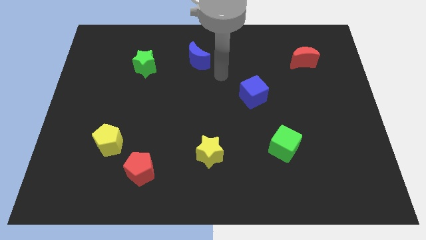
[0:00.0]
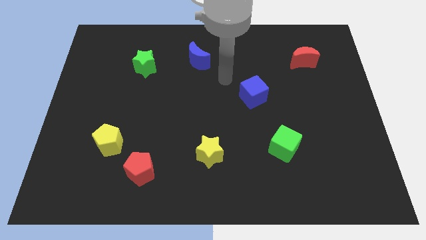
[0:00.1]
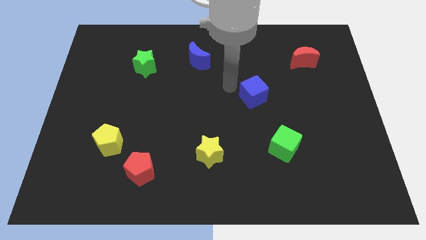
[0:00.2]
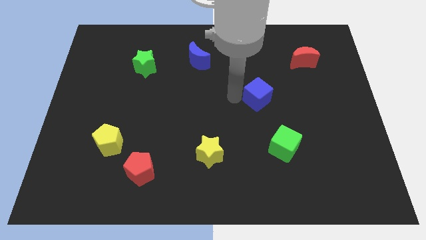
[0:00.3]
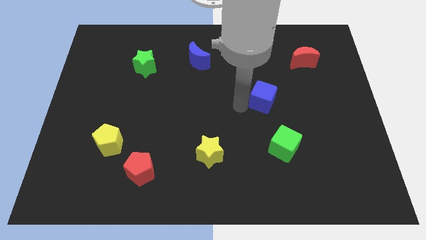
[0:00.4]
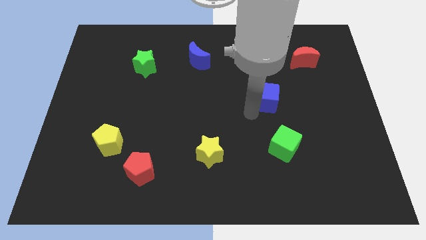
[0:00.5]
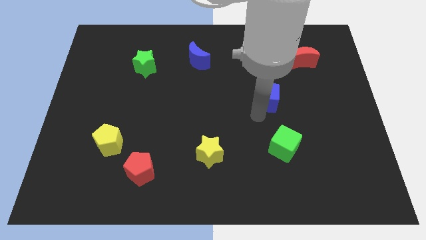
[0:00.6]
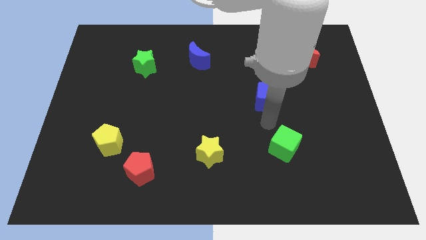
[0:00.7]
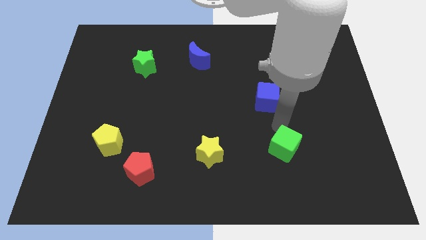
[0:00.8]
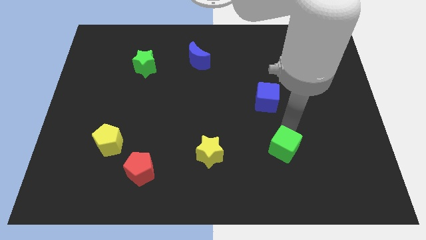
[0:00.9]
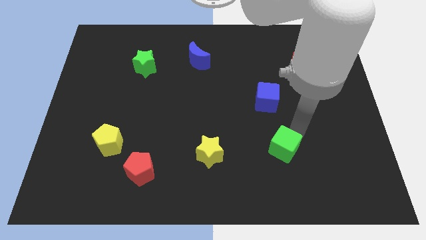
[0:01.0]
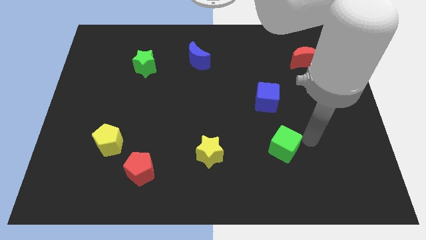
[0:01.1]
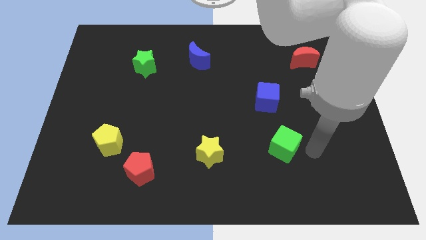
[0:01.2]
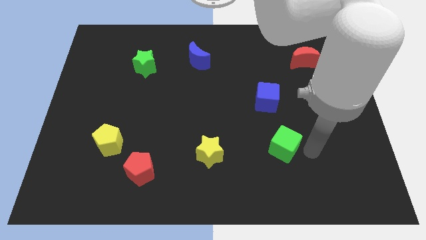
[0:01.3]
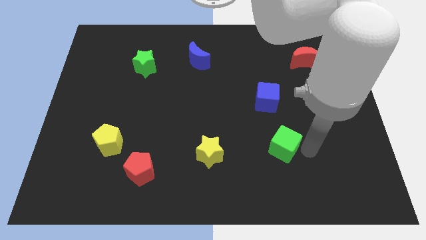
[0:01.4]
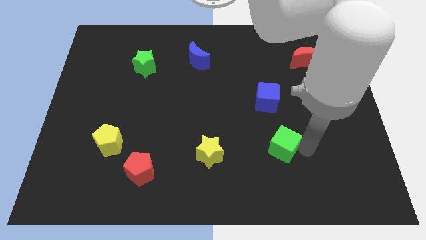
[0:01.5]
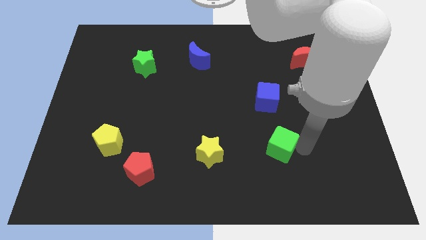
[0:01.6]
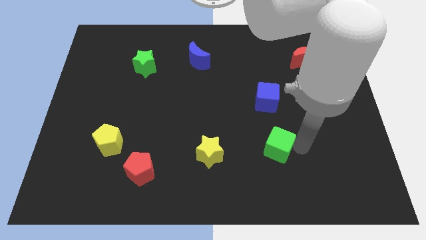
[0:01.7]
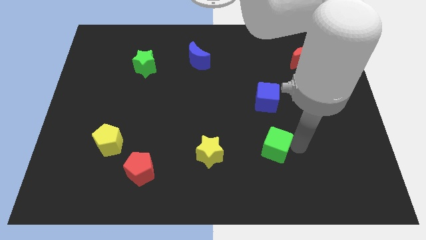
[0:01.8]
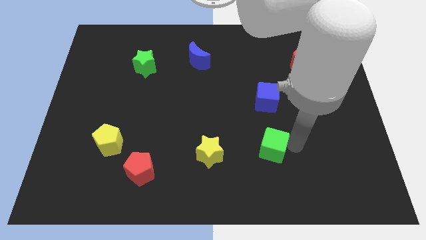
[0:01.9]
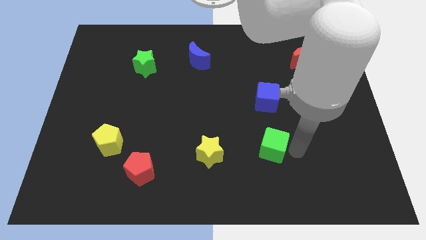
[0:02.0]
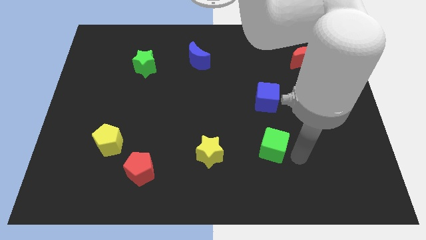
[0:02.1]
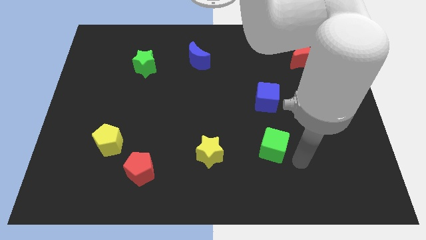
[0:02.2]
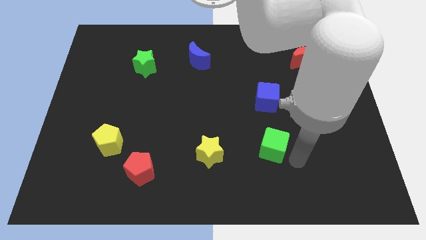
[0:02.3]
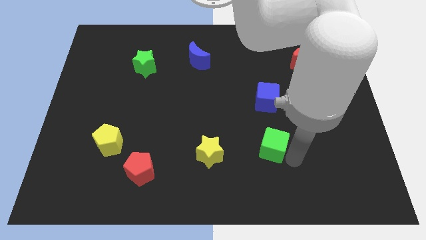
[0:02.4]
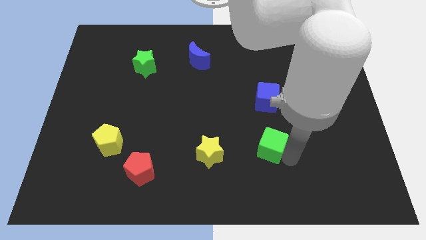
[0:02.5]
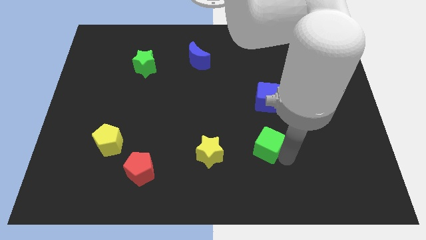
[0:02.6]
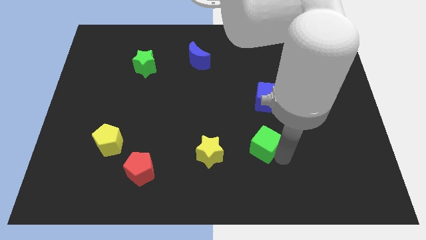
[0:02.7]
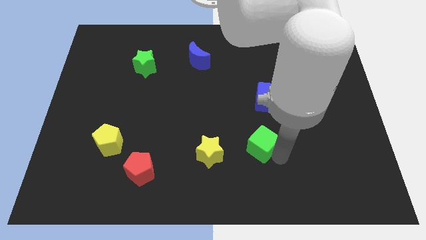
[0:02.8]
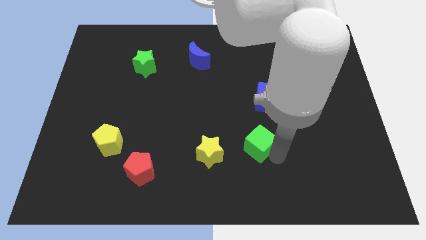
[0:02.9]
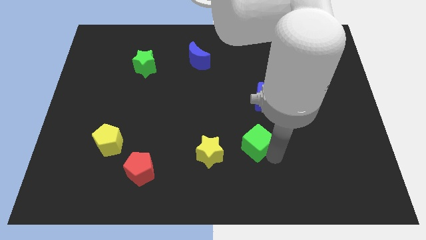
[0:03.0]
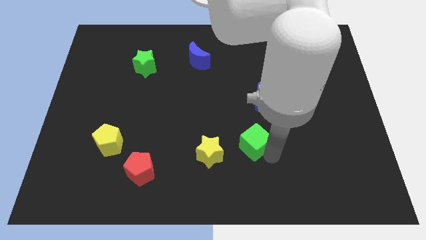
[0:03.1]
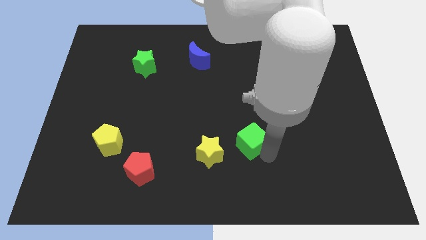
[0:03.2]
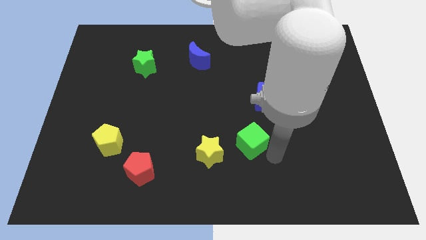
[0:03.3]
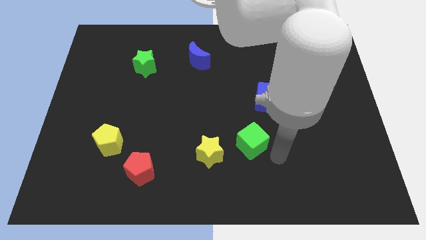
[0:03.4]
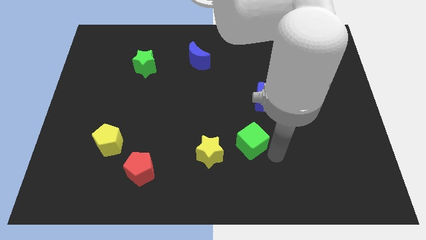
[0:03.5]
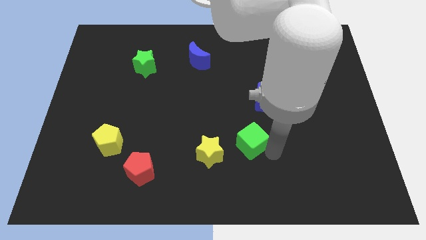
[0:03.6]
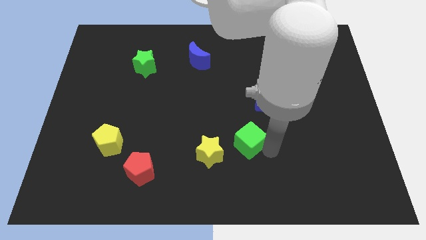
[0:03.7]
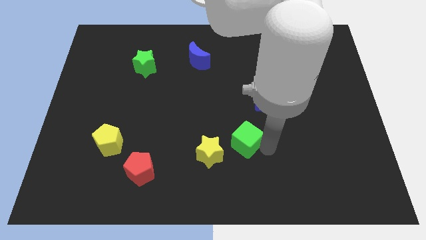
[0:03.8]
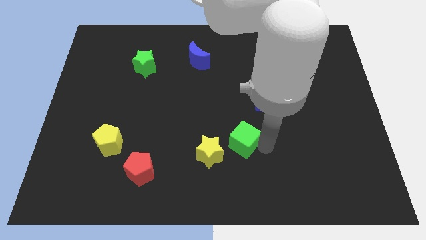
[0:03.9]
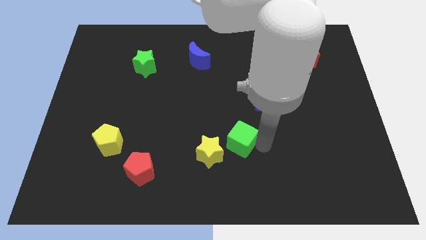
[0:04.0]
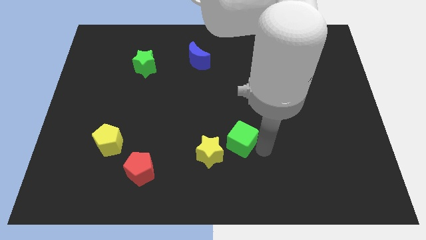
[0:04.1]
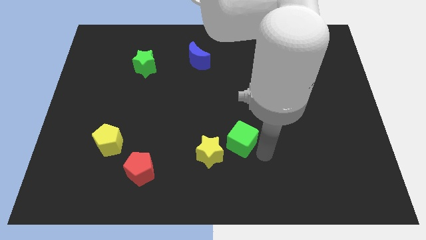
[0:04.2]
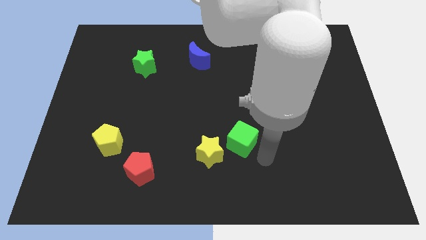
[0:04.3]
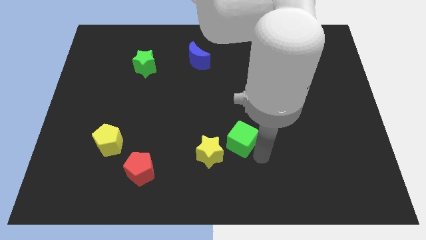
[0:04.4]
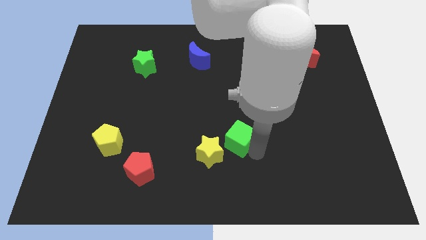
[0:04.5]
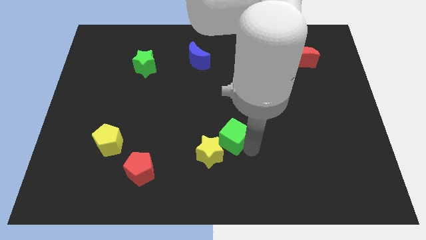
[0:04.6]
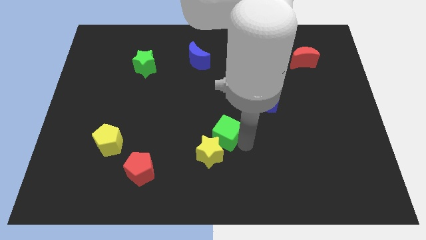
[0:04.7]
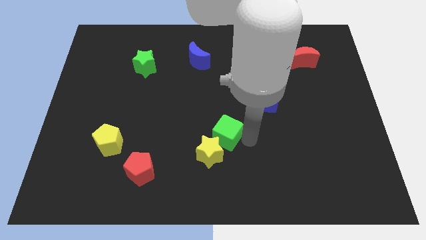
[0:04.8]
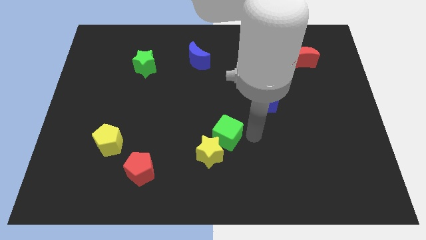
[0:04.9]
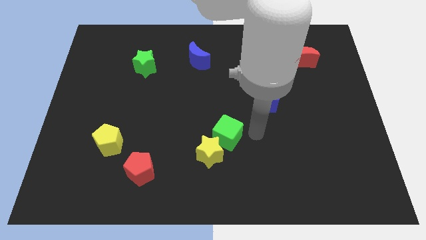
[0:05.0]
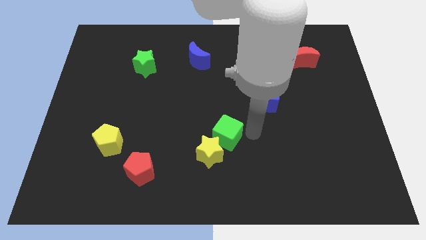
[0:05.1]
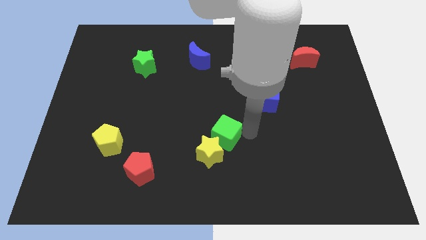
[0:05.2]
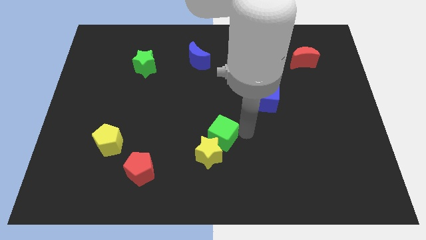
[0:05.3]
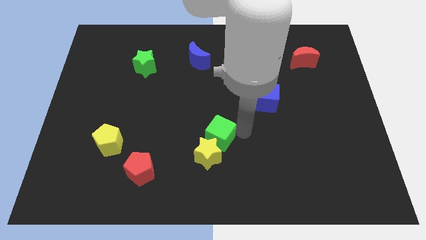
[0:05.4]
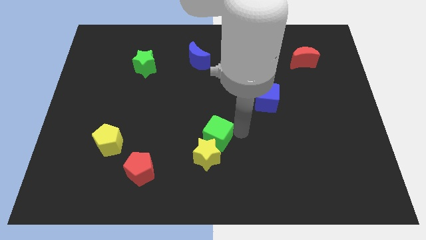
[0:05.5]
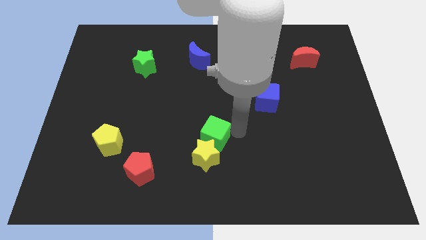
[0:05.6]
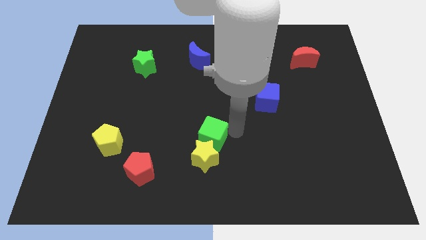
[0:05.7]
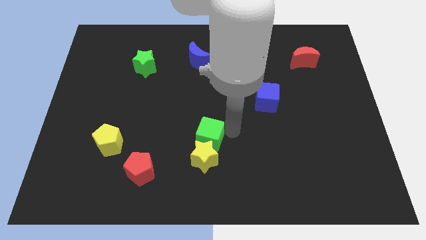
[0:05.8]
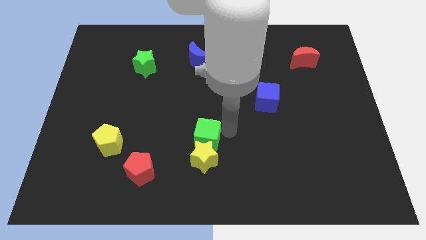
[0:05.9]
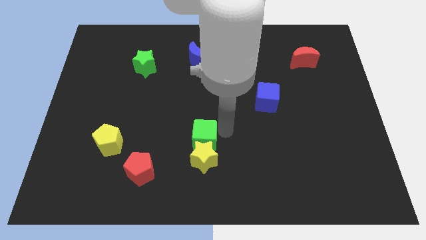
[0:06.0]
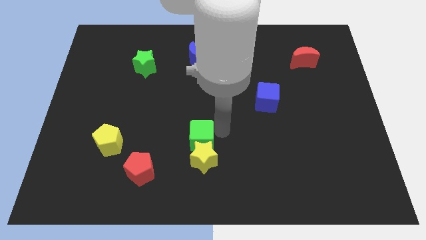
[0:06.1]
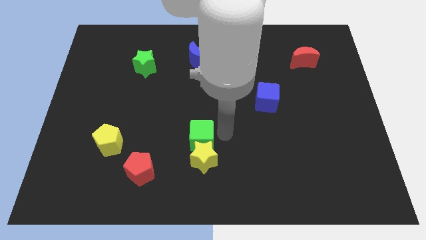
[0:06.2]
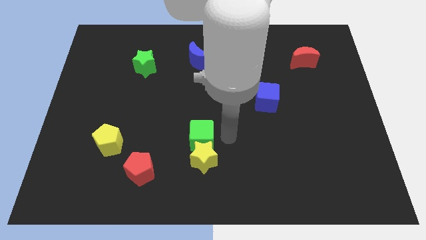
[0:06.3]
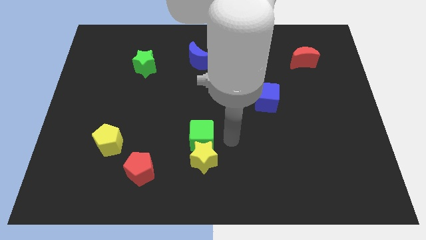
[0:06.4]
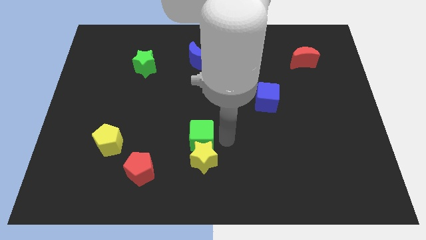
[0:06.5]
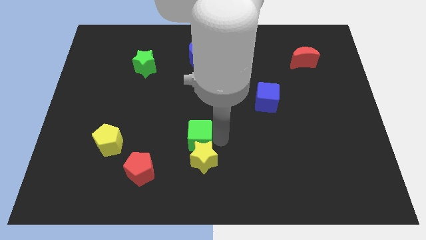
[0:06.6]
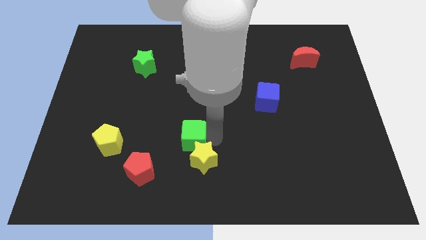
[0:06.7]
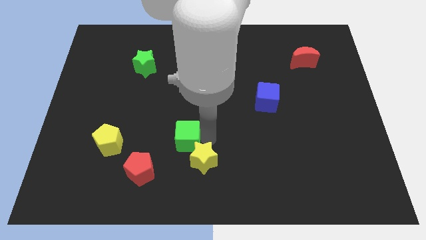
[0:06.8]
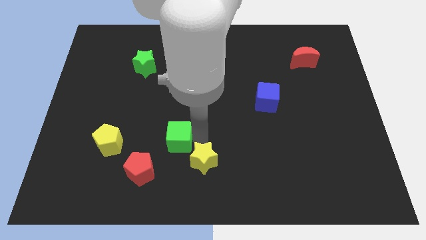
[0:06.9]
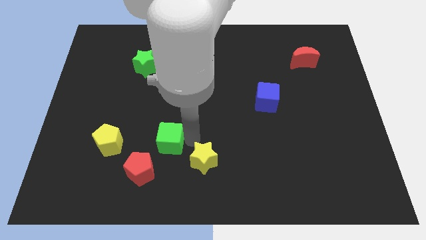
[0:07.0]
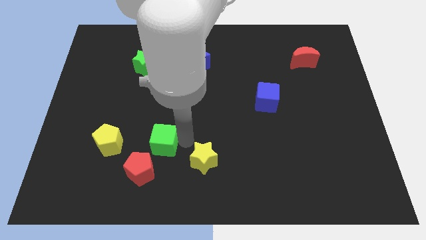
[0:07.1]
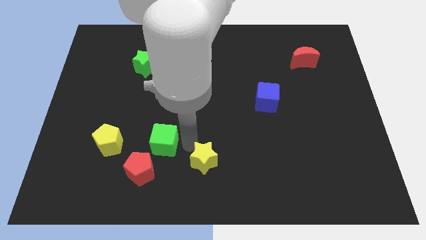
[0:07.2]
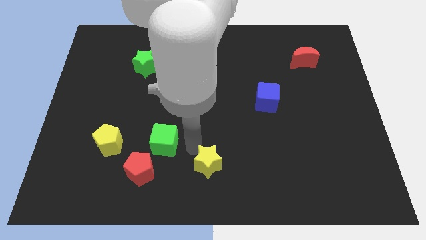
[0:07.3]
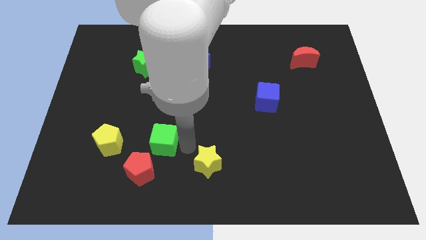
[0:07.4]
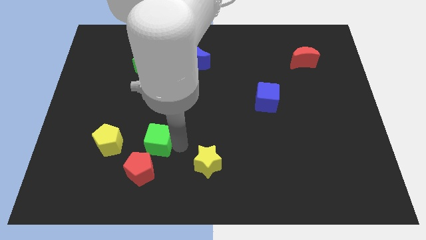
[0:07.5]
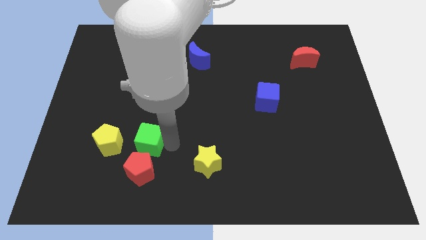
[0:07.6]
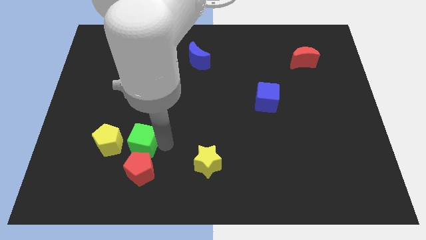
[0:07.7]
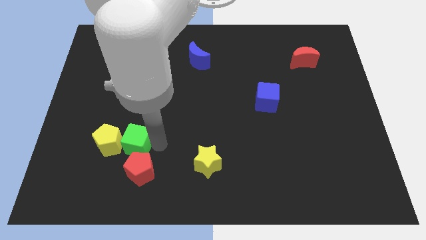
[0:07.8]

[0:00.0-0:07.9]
put the green cube next to the yellow pentagon

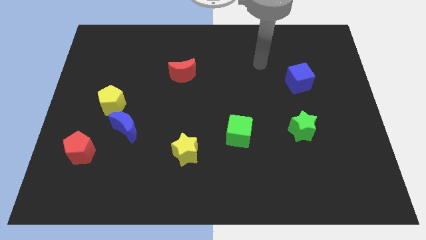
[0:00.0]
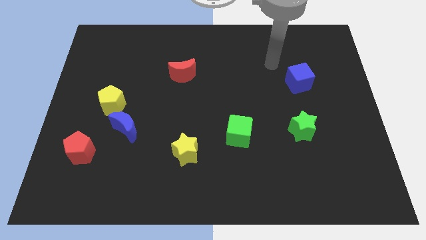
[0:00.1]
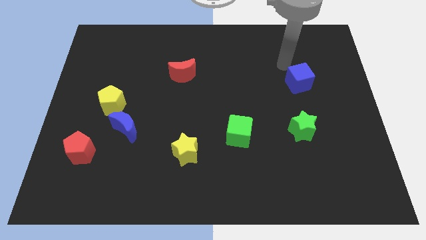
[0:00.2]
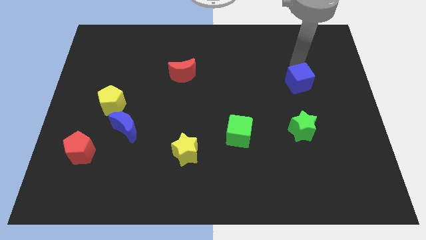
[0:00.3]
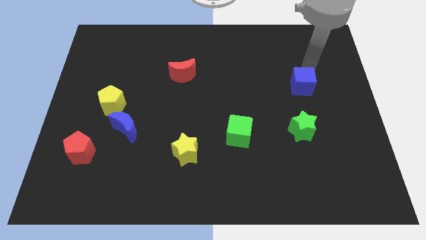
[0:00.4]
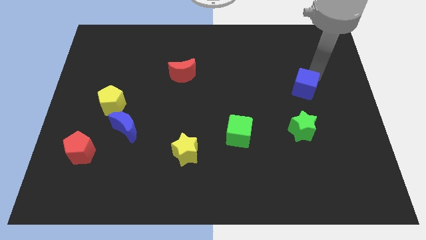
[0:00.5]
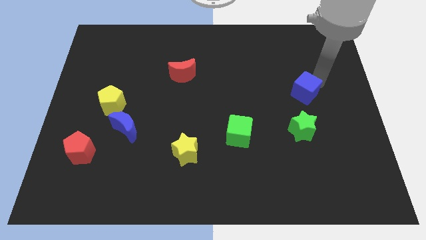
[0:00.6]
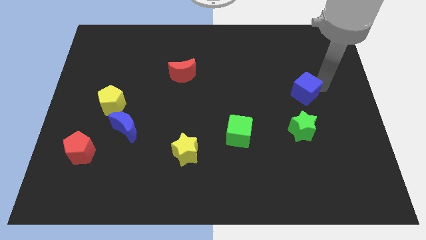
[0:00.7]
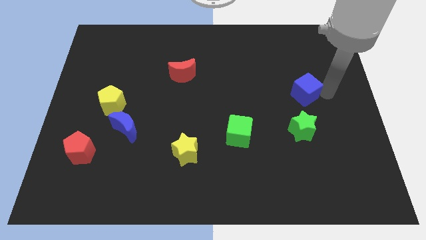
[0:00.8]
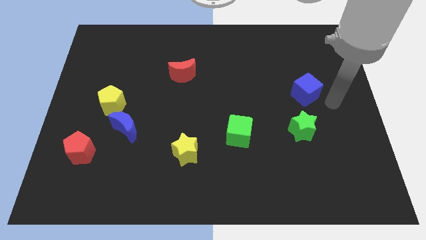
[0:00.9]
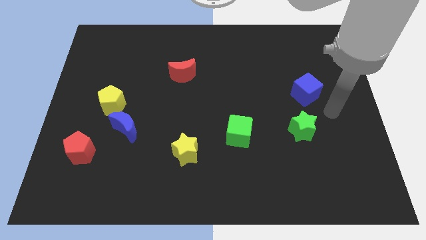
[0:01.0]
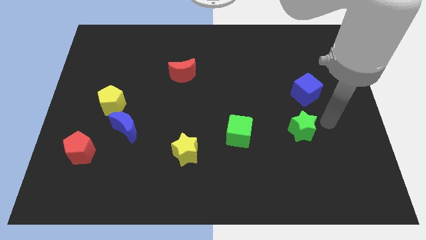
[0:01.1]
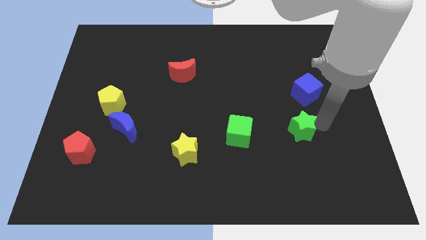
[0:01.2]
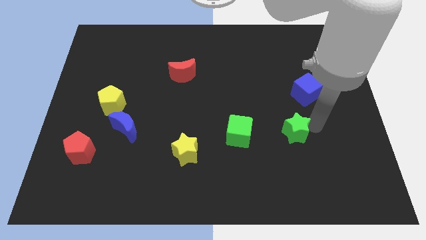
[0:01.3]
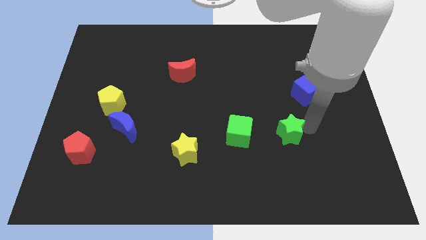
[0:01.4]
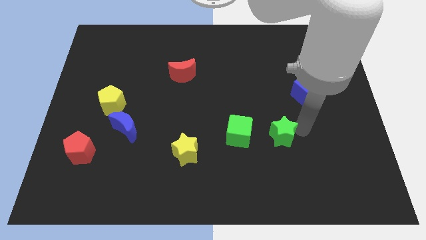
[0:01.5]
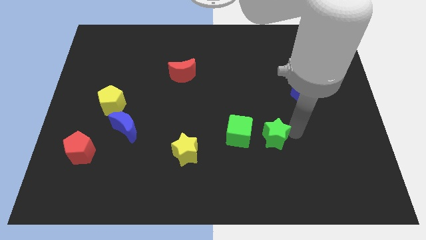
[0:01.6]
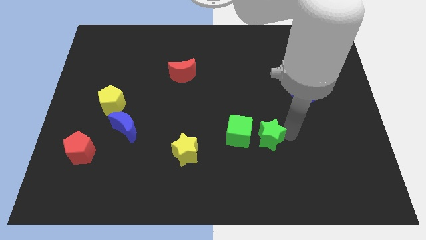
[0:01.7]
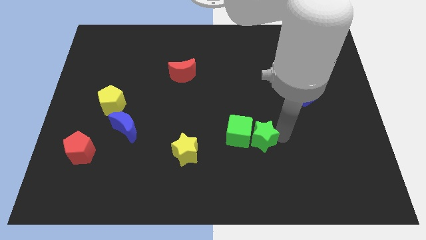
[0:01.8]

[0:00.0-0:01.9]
move the green star next to the green cube
